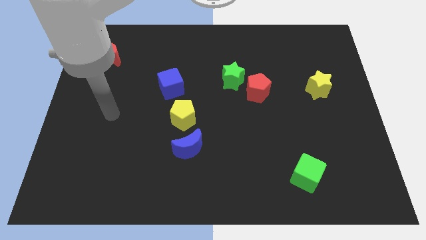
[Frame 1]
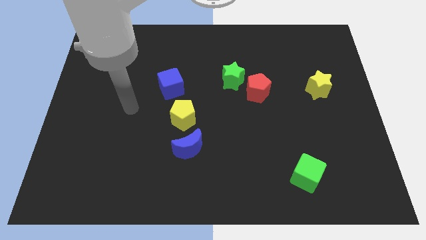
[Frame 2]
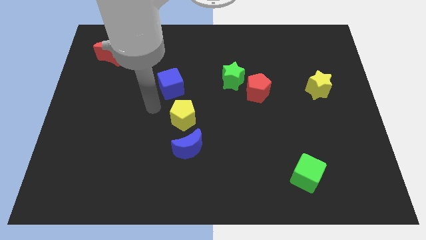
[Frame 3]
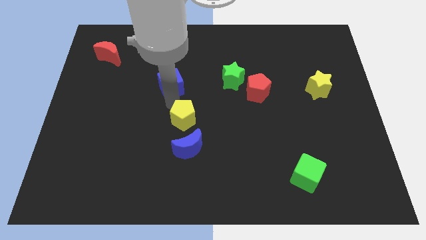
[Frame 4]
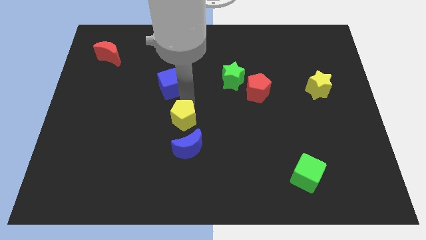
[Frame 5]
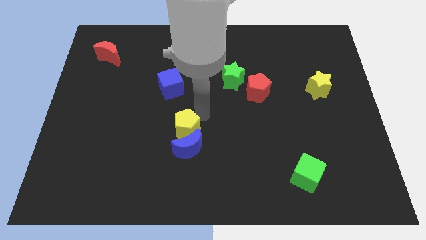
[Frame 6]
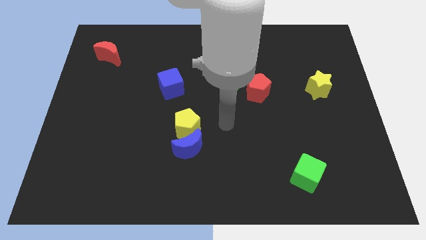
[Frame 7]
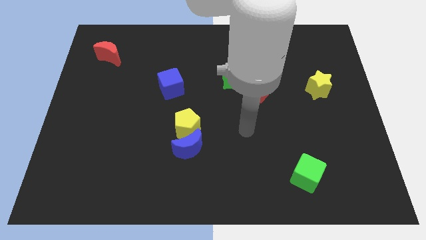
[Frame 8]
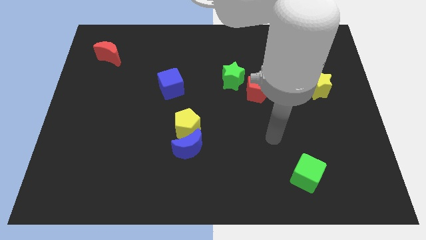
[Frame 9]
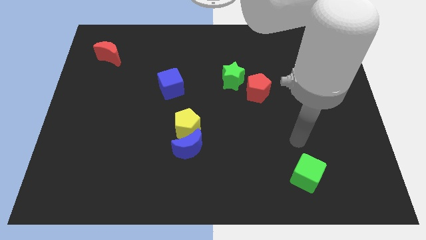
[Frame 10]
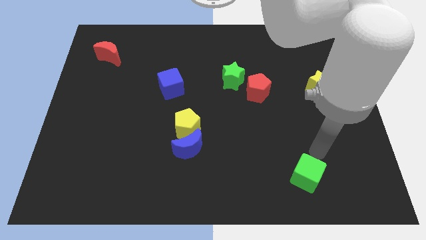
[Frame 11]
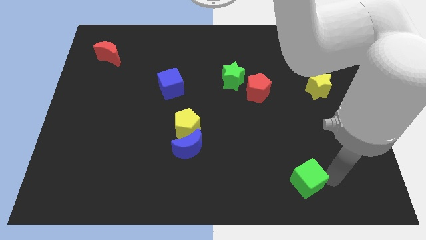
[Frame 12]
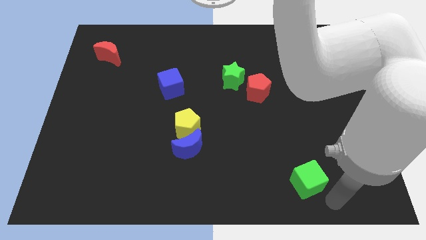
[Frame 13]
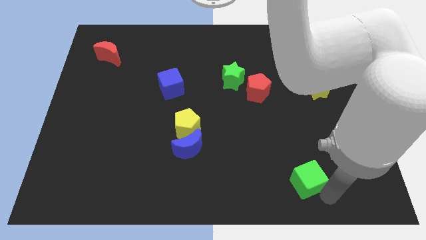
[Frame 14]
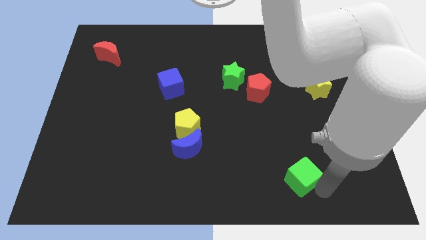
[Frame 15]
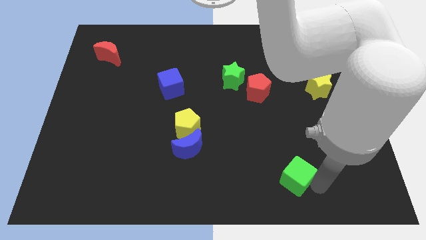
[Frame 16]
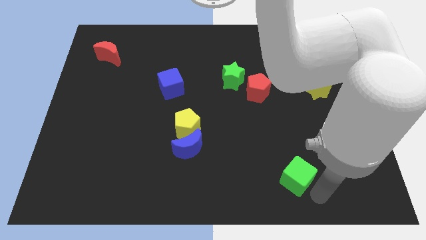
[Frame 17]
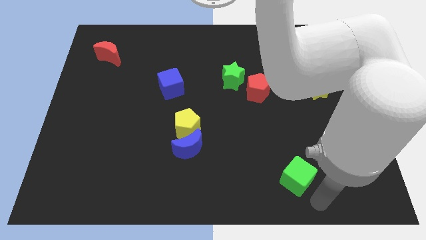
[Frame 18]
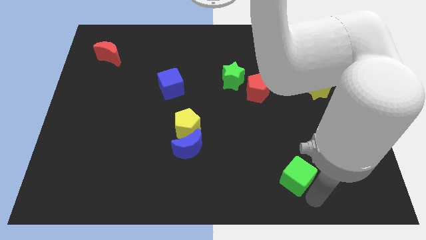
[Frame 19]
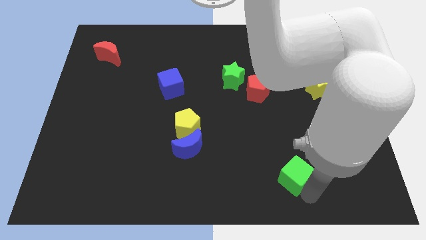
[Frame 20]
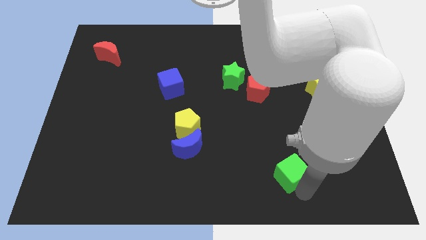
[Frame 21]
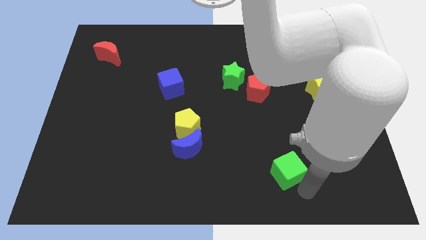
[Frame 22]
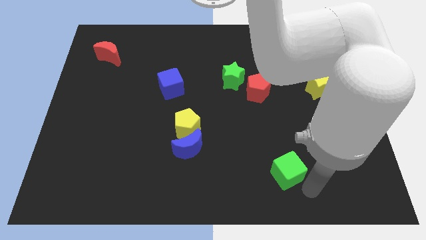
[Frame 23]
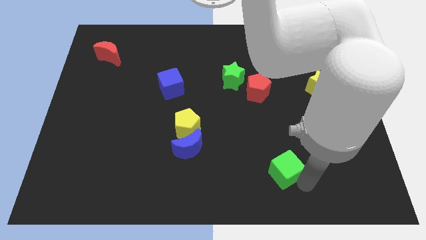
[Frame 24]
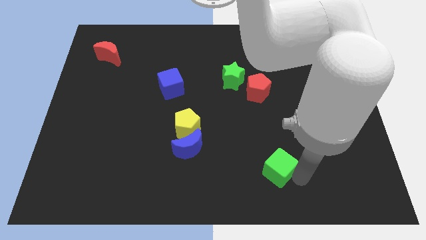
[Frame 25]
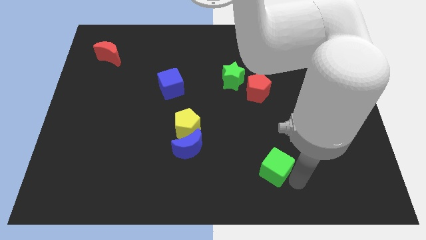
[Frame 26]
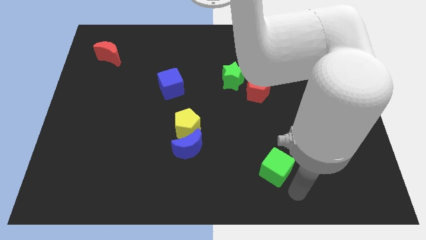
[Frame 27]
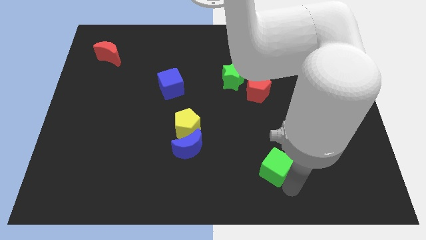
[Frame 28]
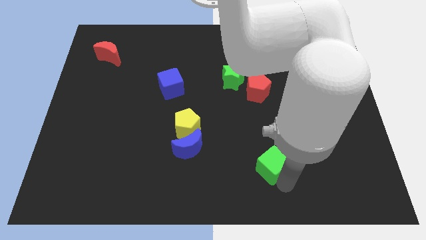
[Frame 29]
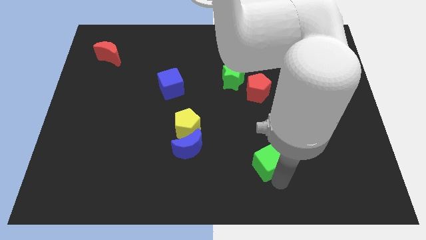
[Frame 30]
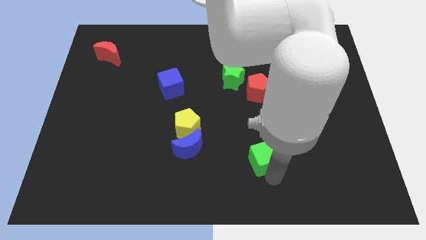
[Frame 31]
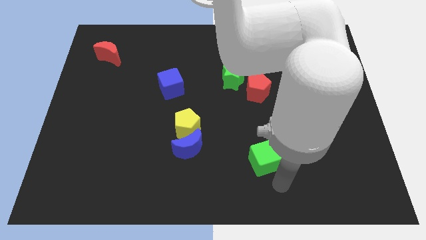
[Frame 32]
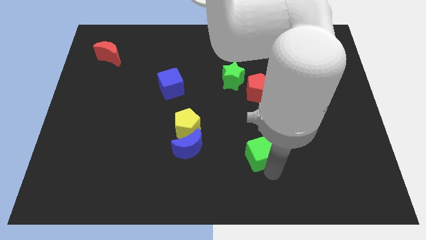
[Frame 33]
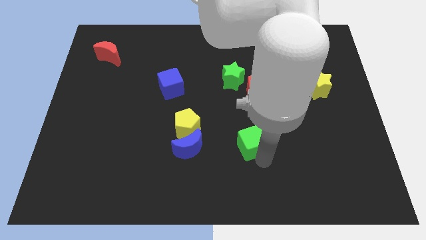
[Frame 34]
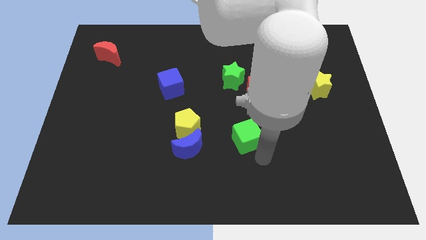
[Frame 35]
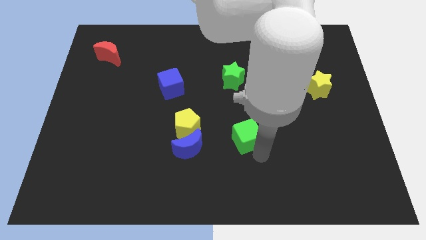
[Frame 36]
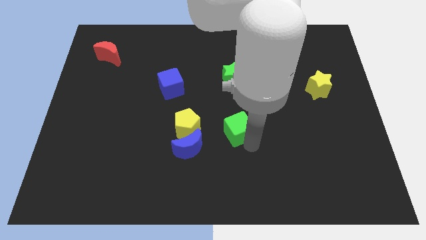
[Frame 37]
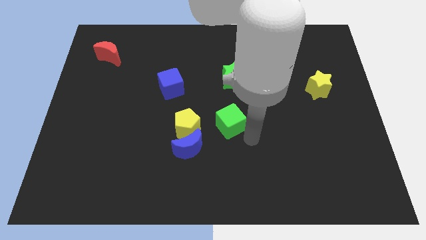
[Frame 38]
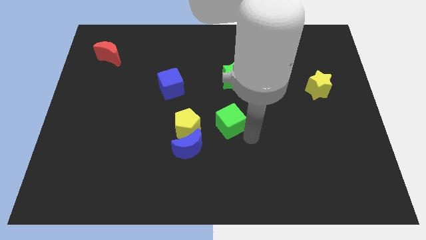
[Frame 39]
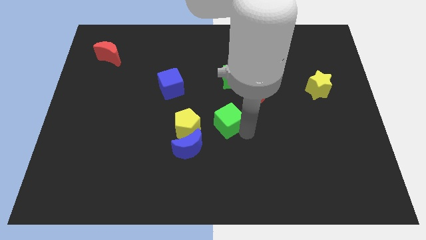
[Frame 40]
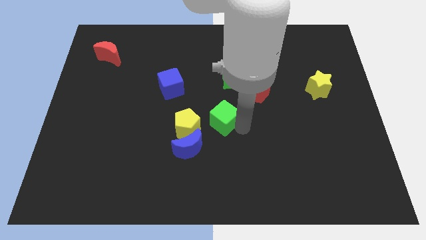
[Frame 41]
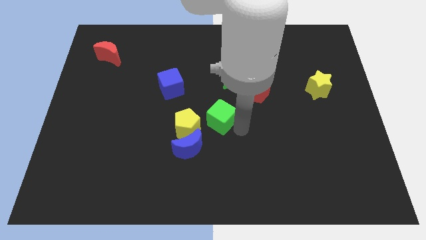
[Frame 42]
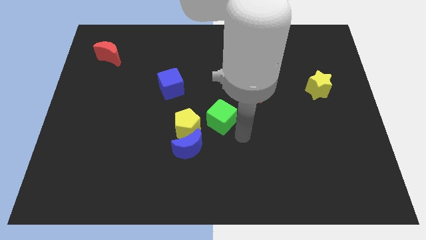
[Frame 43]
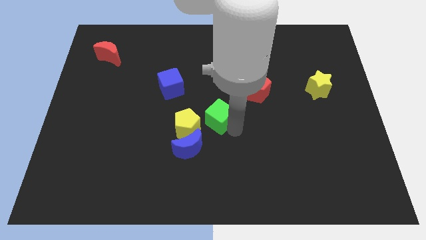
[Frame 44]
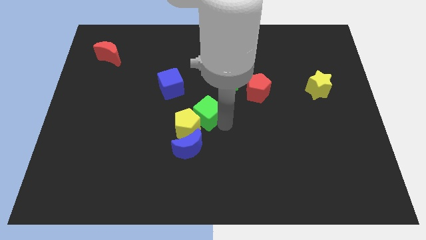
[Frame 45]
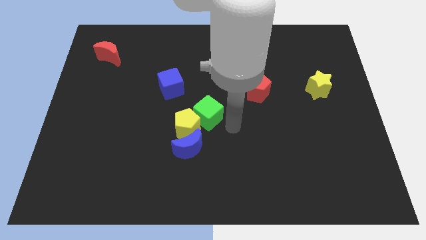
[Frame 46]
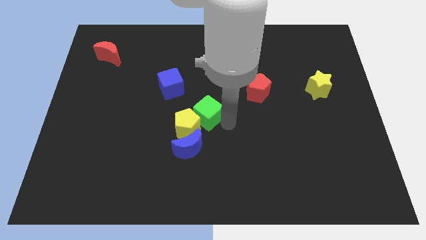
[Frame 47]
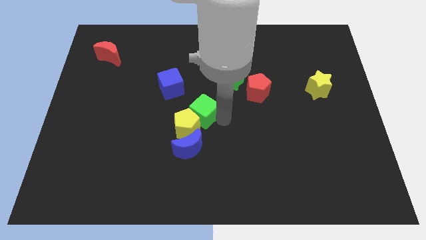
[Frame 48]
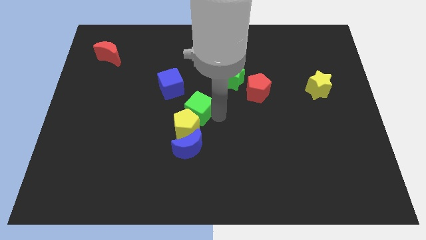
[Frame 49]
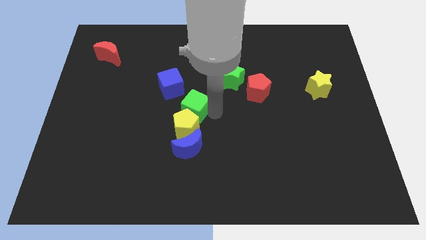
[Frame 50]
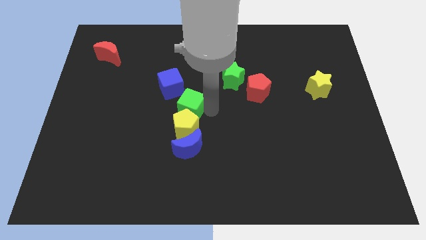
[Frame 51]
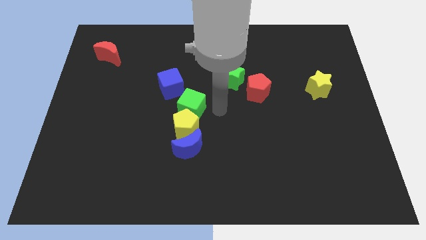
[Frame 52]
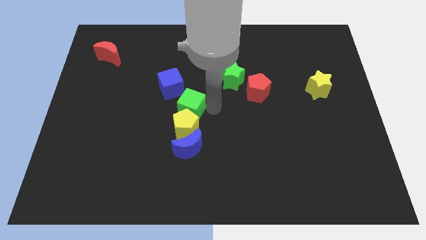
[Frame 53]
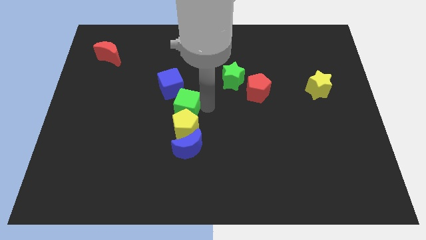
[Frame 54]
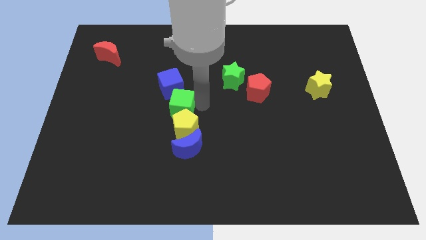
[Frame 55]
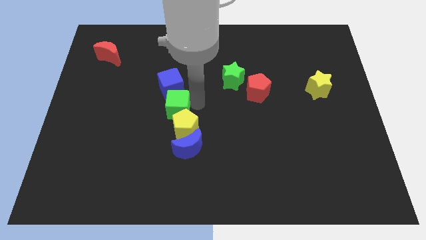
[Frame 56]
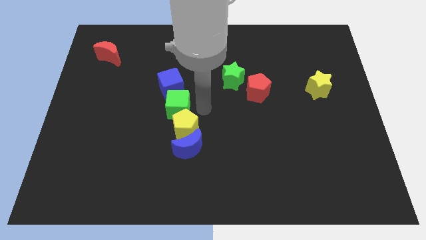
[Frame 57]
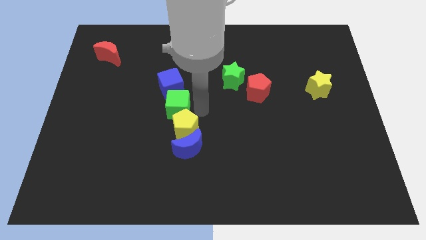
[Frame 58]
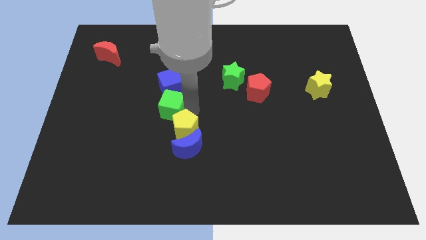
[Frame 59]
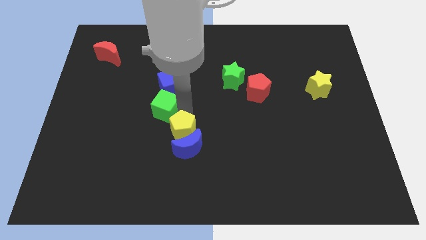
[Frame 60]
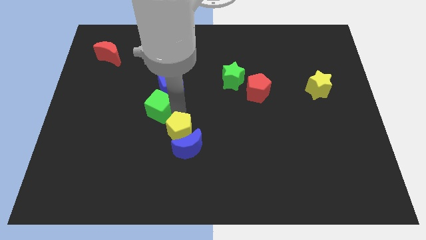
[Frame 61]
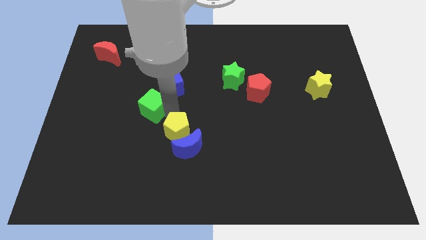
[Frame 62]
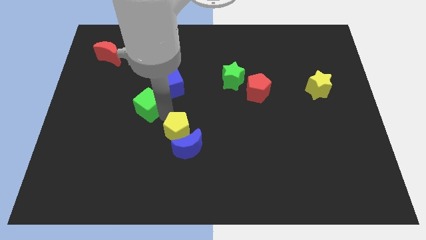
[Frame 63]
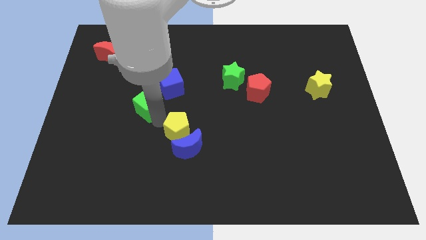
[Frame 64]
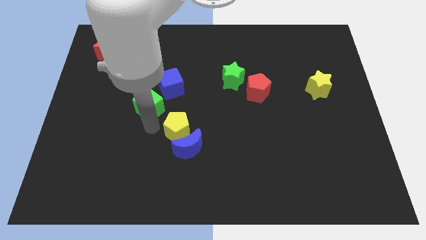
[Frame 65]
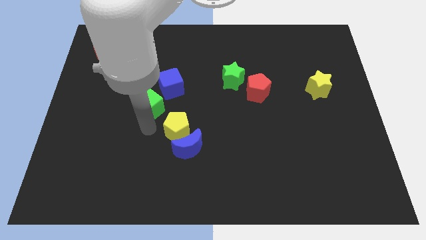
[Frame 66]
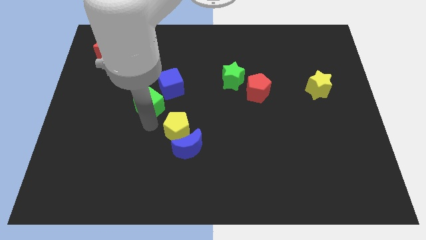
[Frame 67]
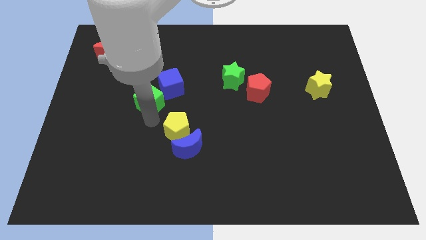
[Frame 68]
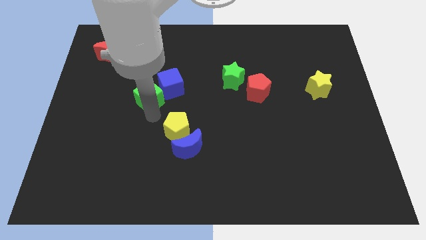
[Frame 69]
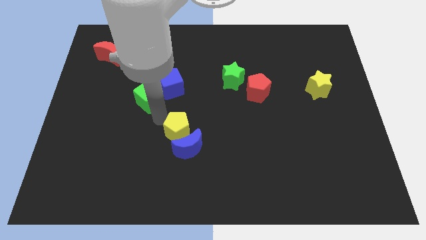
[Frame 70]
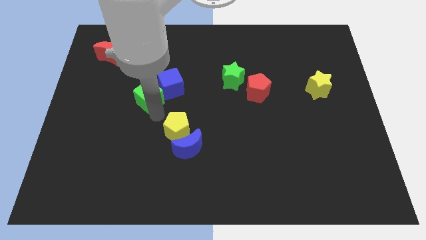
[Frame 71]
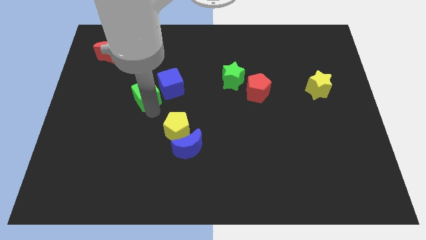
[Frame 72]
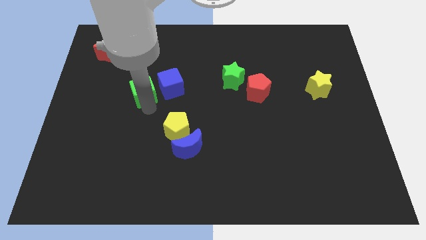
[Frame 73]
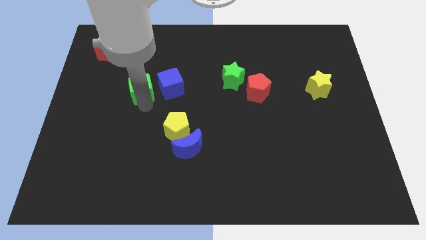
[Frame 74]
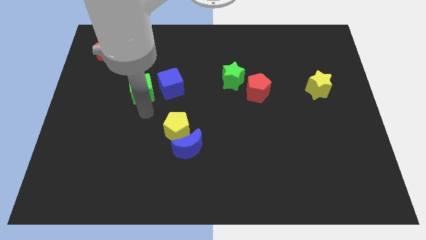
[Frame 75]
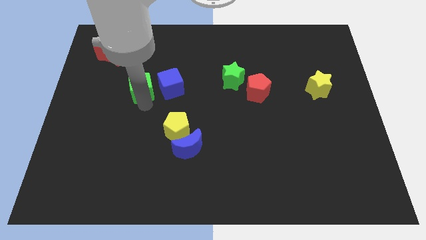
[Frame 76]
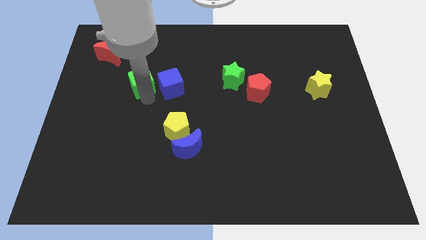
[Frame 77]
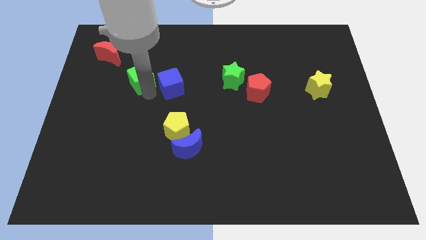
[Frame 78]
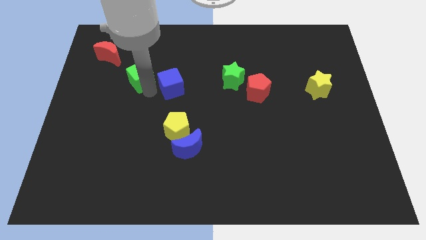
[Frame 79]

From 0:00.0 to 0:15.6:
move the green cube diagonally down and to the right of the red moon
